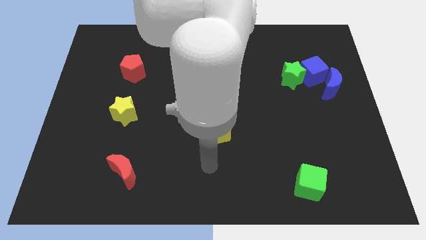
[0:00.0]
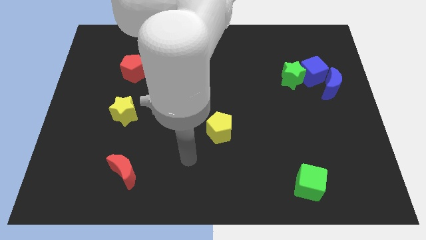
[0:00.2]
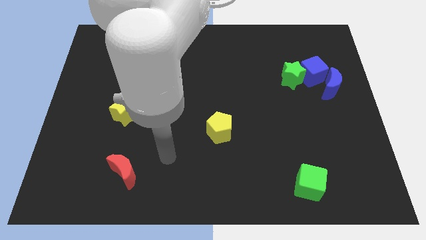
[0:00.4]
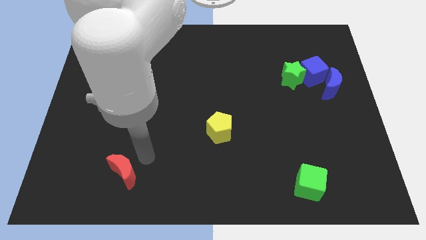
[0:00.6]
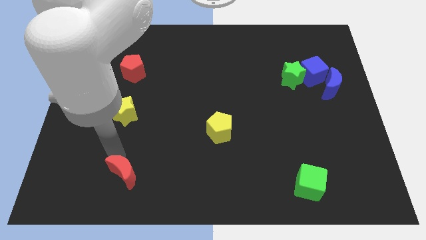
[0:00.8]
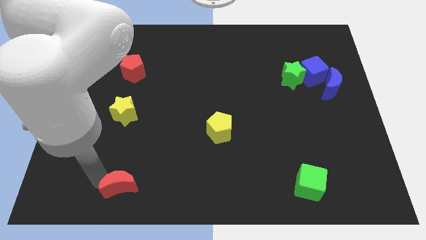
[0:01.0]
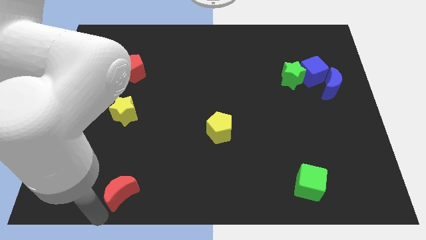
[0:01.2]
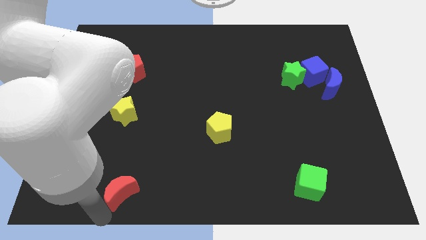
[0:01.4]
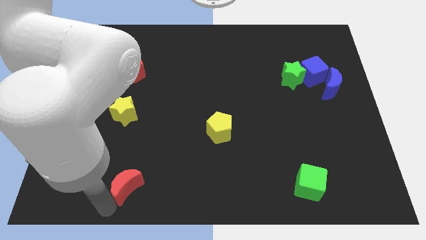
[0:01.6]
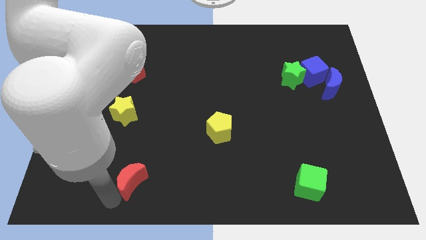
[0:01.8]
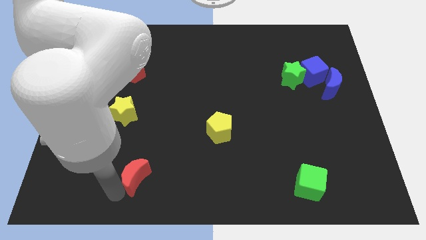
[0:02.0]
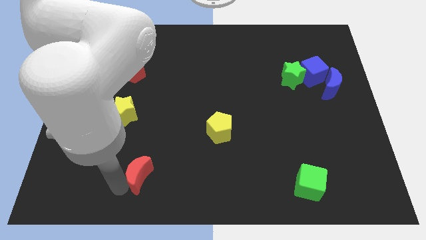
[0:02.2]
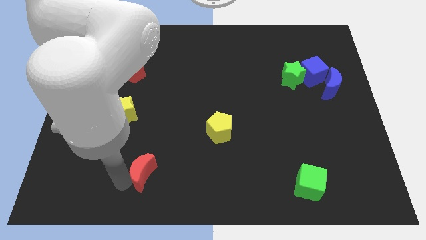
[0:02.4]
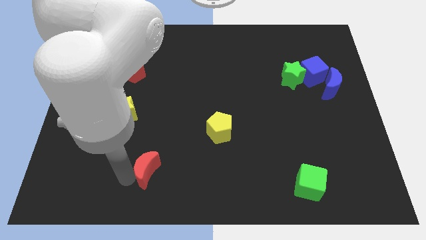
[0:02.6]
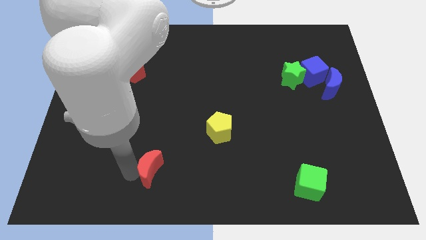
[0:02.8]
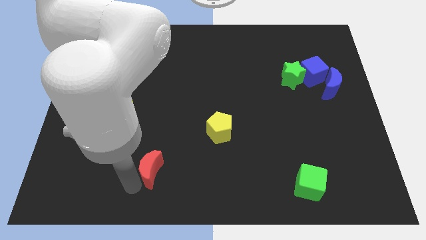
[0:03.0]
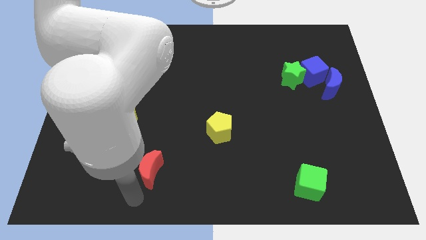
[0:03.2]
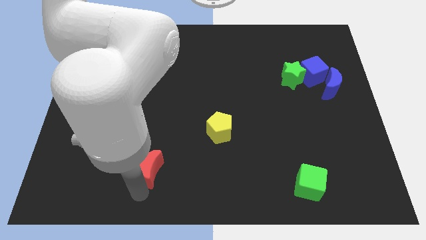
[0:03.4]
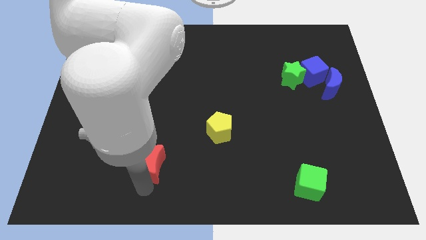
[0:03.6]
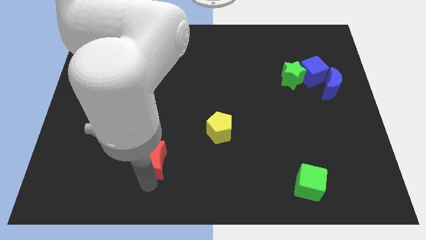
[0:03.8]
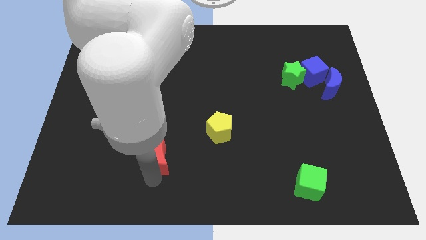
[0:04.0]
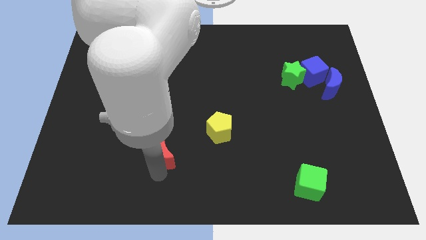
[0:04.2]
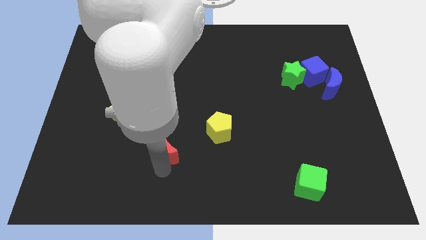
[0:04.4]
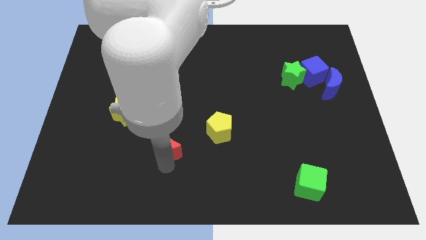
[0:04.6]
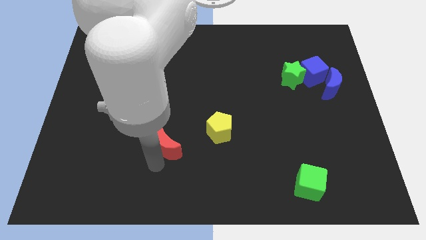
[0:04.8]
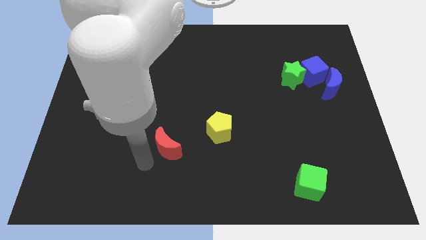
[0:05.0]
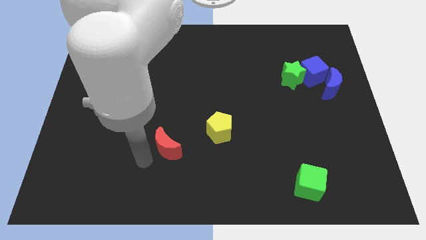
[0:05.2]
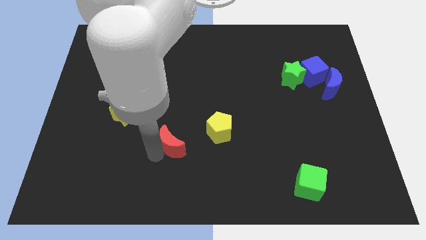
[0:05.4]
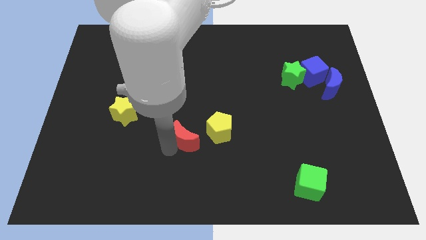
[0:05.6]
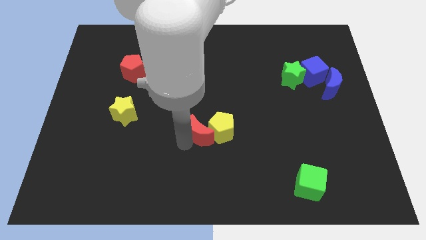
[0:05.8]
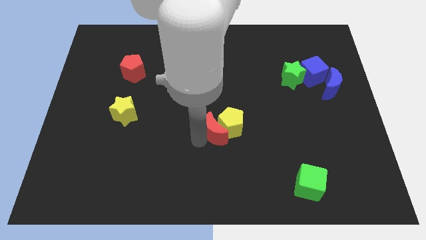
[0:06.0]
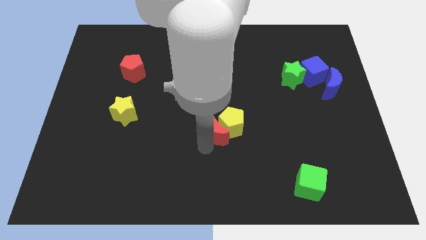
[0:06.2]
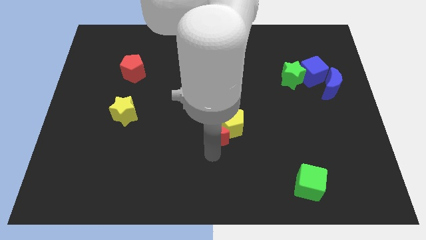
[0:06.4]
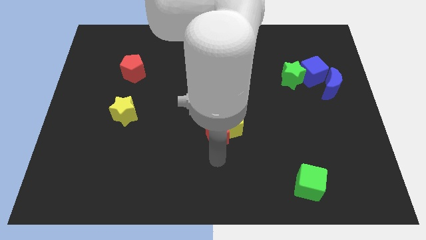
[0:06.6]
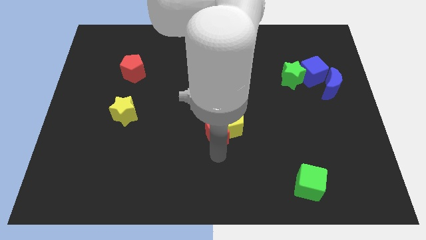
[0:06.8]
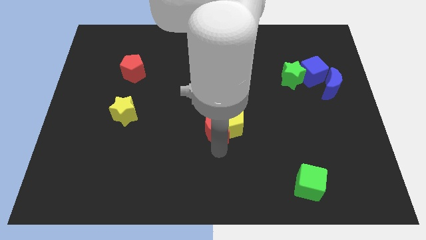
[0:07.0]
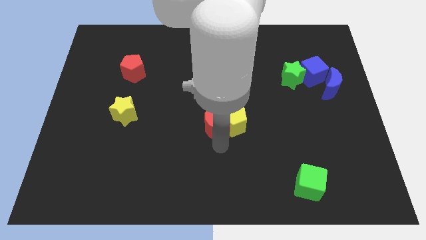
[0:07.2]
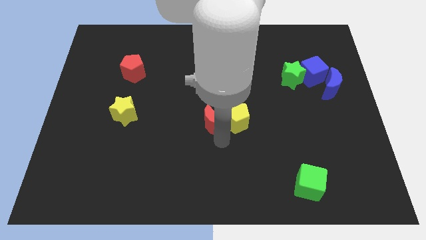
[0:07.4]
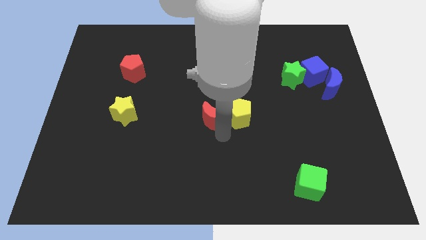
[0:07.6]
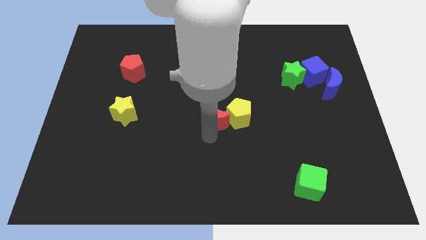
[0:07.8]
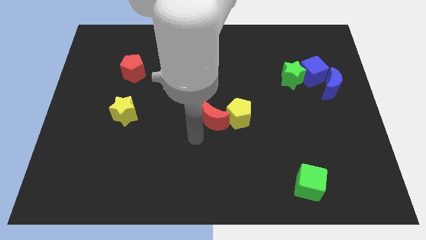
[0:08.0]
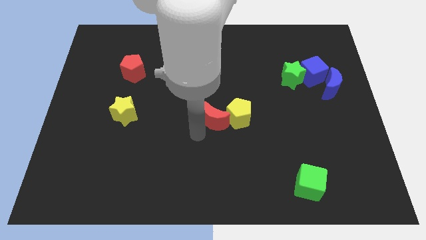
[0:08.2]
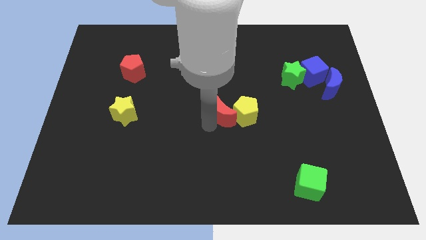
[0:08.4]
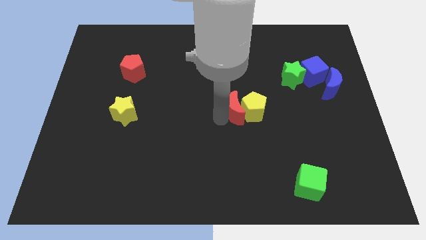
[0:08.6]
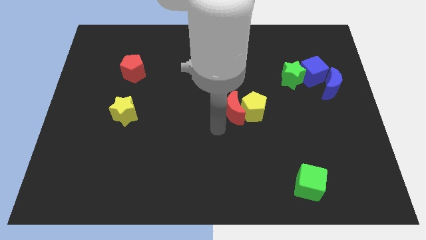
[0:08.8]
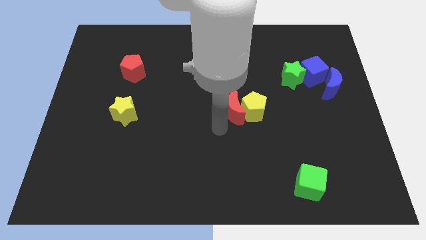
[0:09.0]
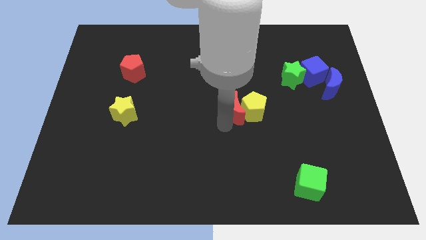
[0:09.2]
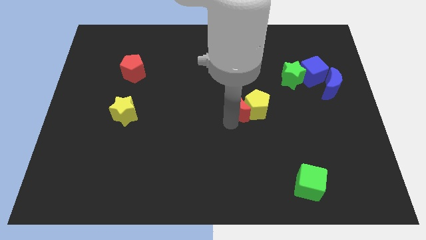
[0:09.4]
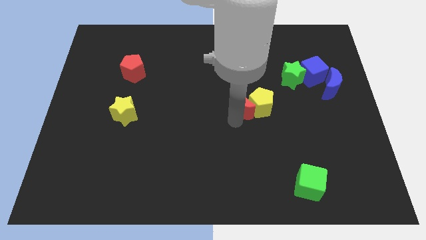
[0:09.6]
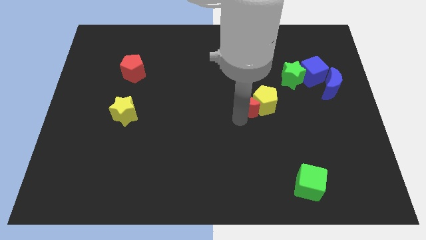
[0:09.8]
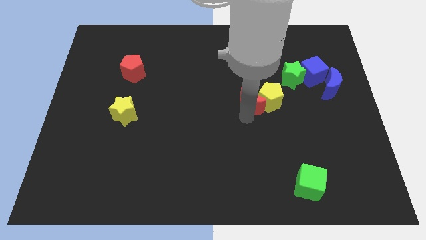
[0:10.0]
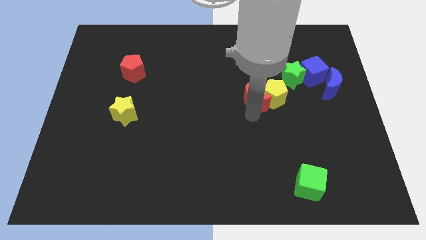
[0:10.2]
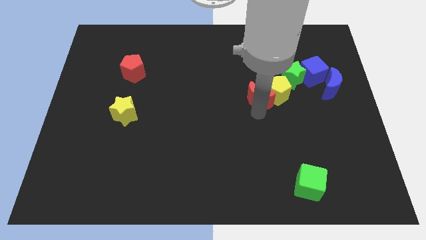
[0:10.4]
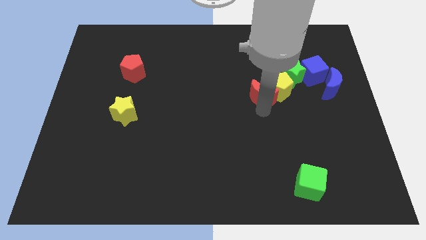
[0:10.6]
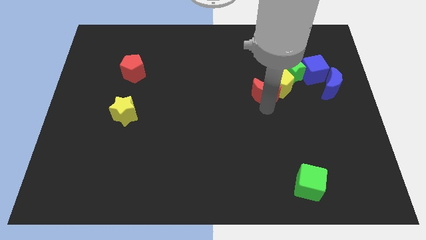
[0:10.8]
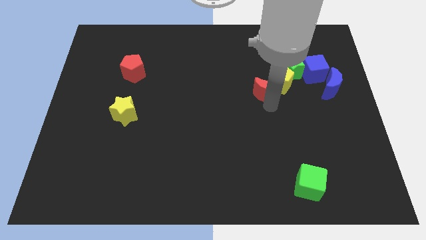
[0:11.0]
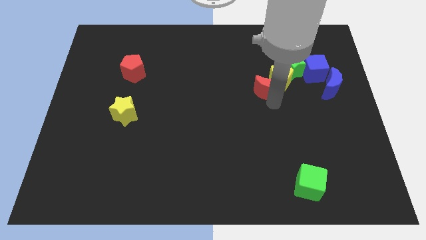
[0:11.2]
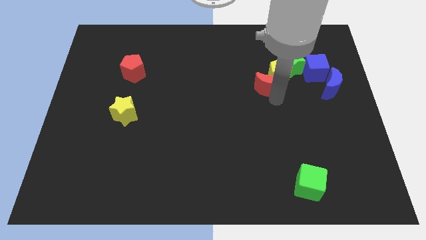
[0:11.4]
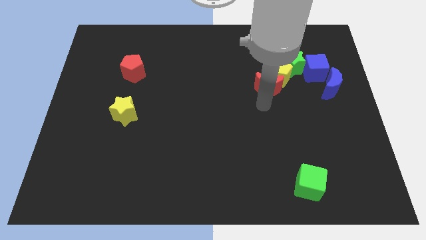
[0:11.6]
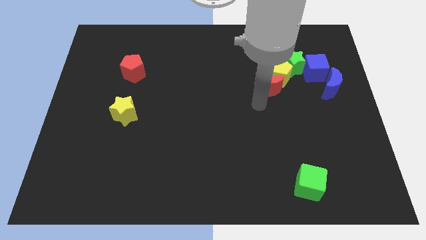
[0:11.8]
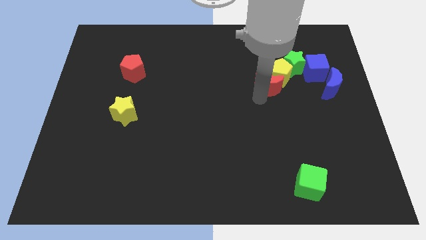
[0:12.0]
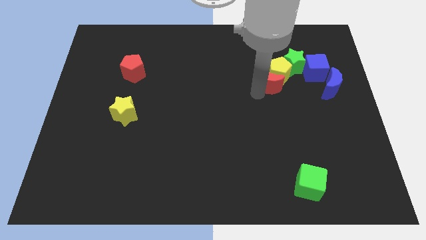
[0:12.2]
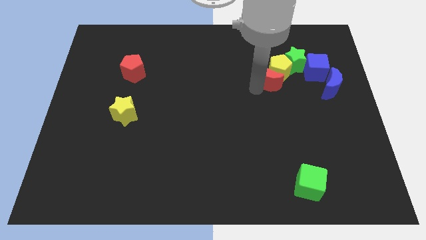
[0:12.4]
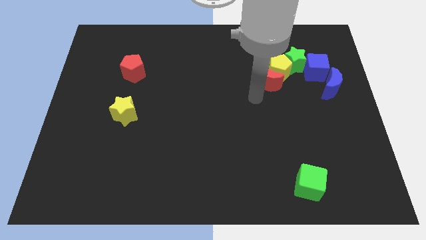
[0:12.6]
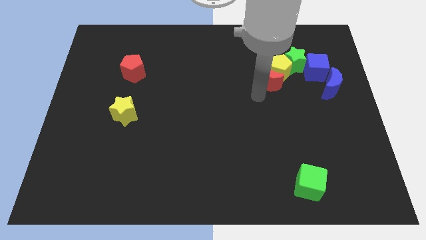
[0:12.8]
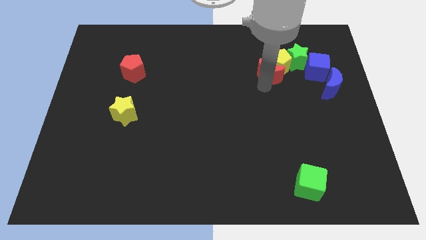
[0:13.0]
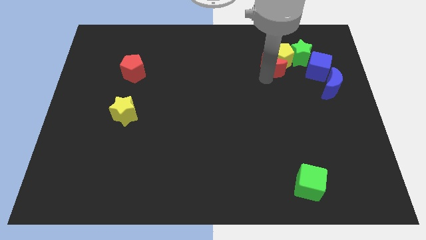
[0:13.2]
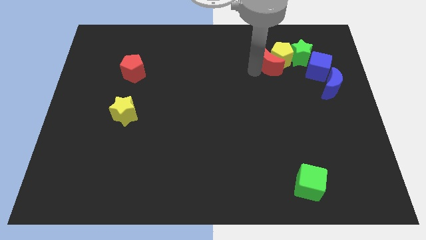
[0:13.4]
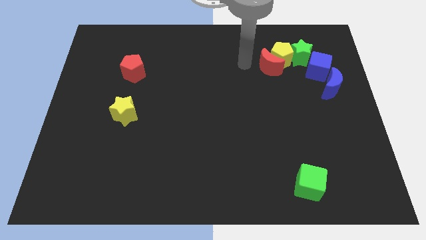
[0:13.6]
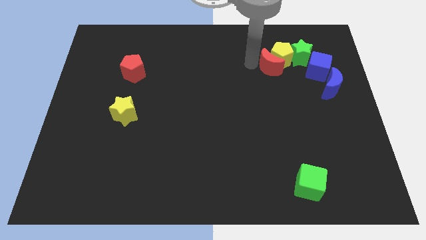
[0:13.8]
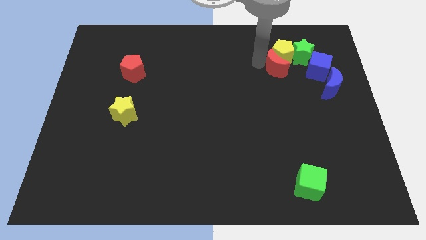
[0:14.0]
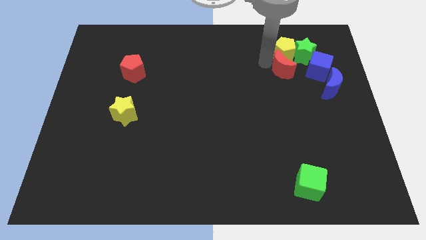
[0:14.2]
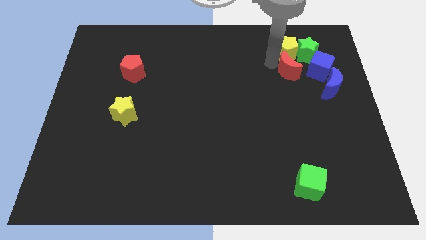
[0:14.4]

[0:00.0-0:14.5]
slide the red moon diagonally up and to the left of the blue moon

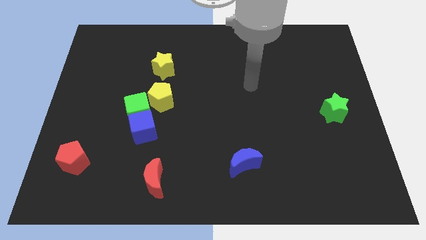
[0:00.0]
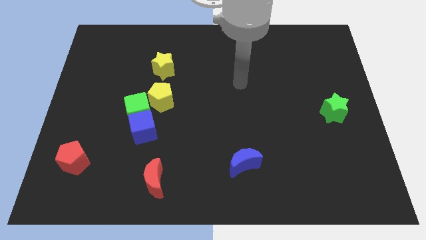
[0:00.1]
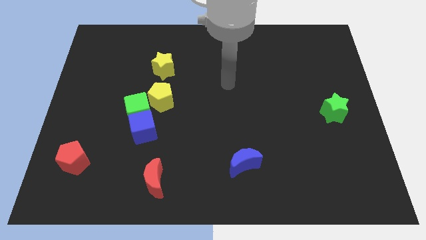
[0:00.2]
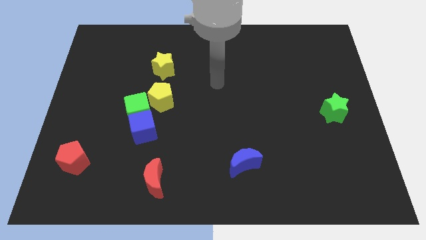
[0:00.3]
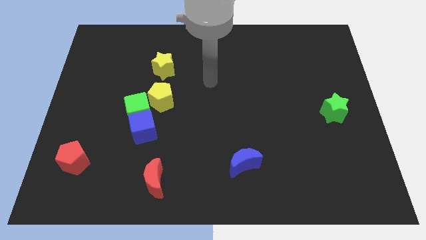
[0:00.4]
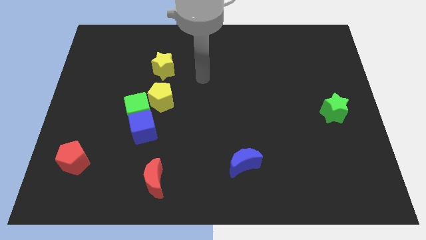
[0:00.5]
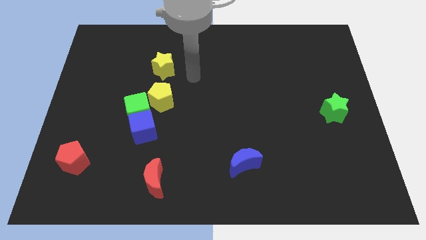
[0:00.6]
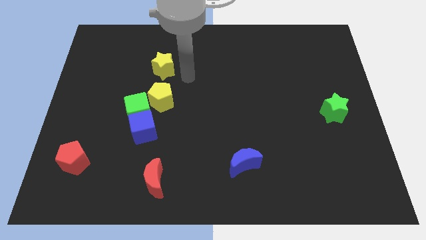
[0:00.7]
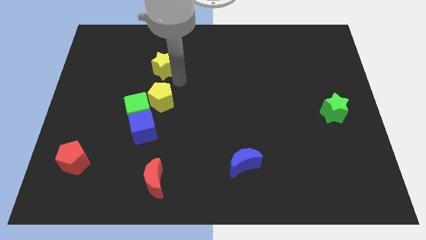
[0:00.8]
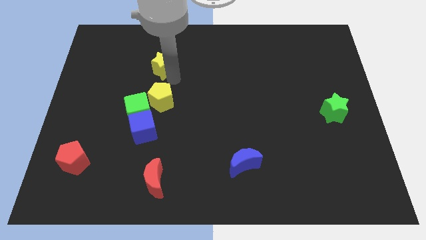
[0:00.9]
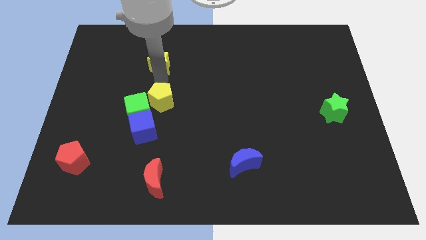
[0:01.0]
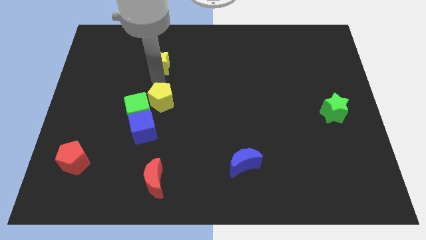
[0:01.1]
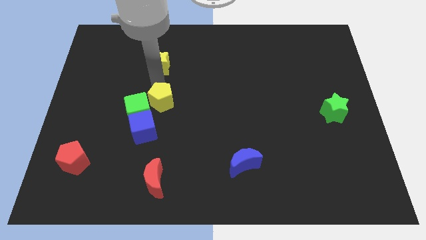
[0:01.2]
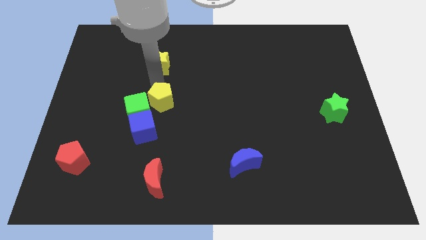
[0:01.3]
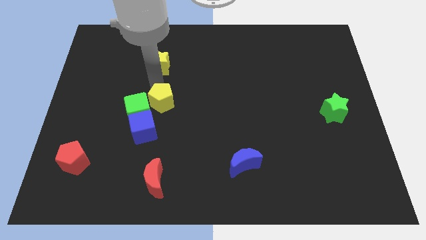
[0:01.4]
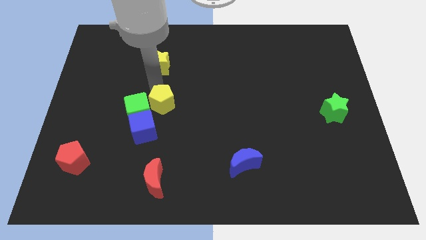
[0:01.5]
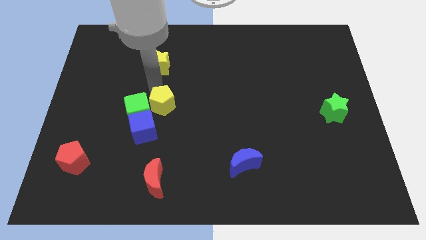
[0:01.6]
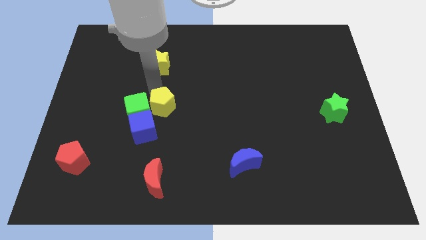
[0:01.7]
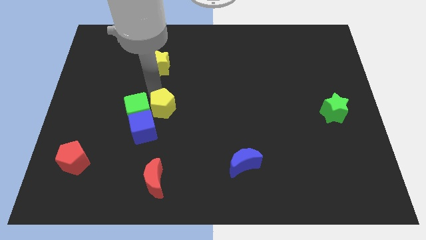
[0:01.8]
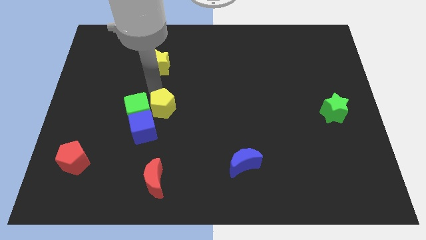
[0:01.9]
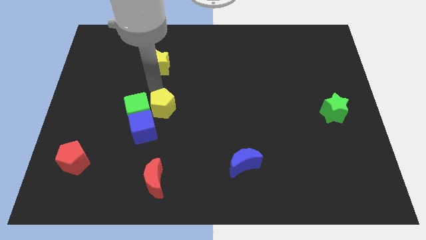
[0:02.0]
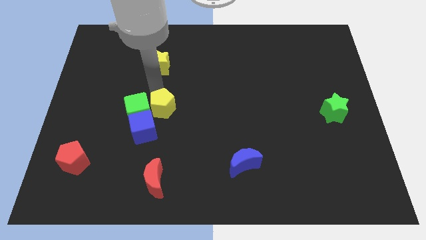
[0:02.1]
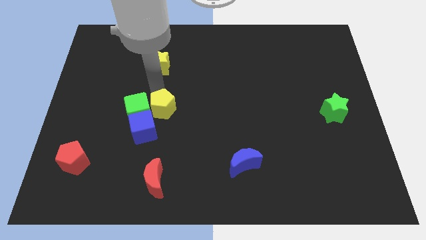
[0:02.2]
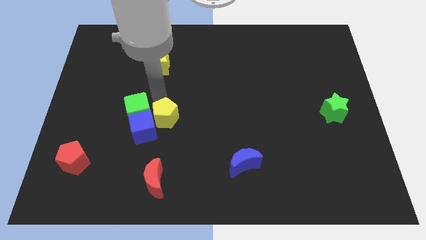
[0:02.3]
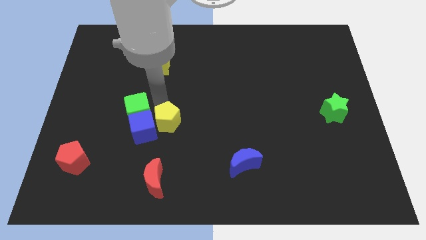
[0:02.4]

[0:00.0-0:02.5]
move the yellow pentagon to the top of the red moon
